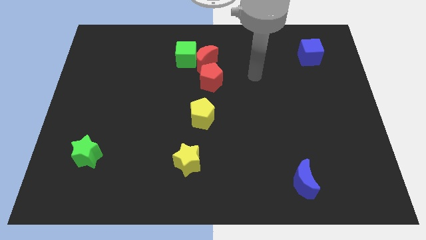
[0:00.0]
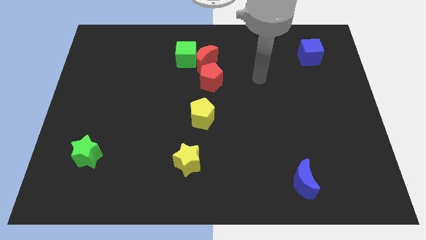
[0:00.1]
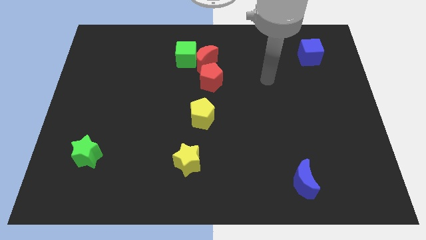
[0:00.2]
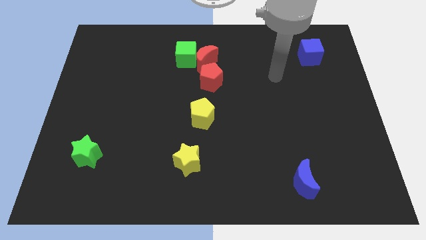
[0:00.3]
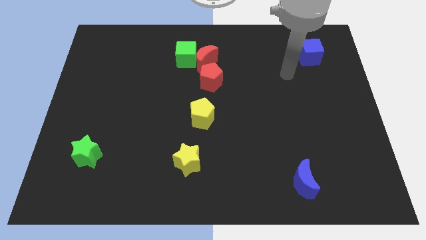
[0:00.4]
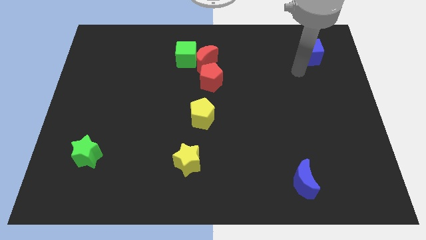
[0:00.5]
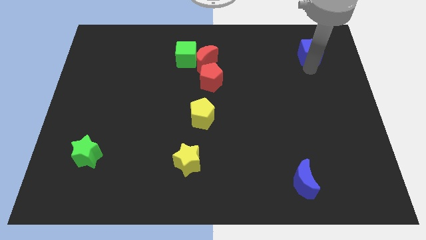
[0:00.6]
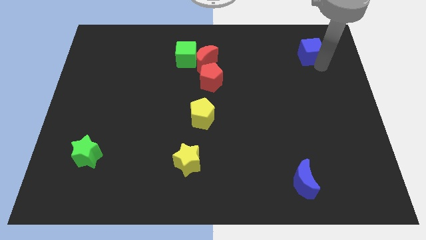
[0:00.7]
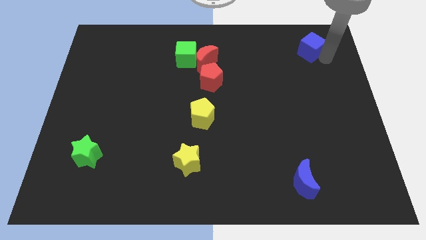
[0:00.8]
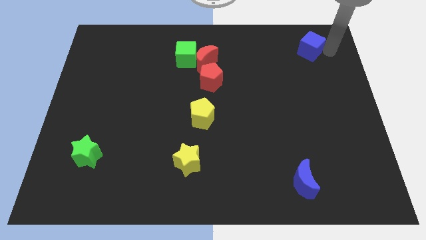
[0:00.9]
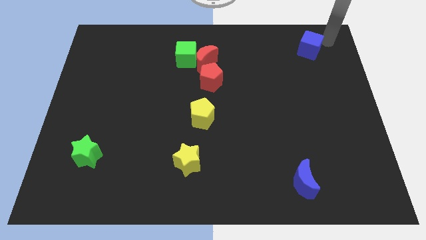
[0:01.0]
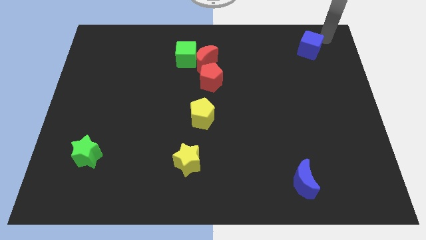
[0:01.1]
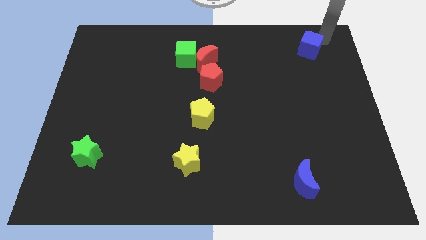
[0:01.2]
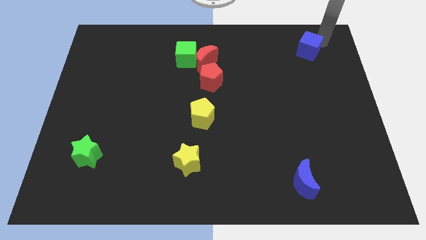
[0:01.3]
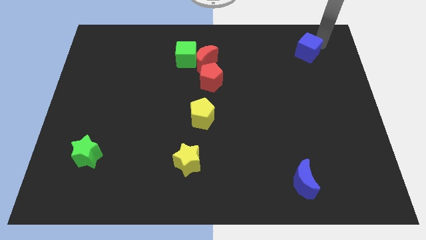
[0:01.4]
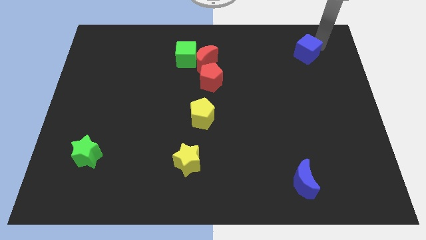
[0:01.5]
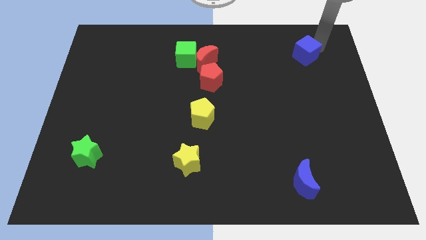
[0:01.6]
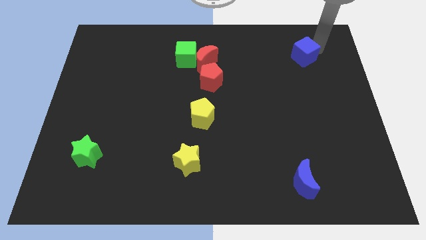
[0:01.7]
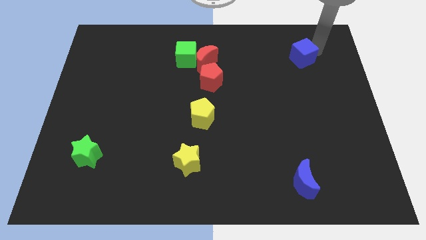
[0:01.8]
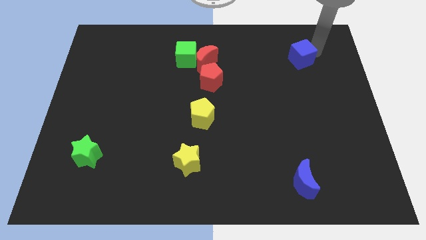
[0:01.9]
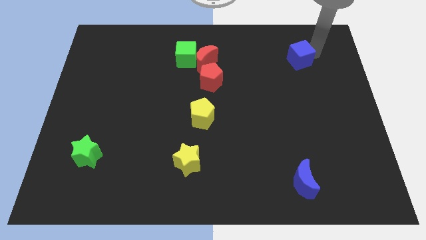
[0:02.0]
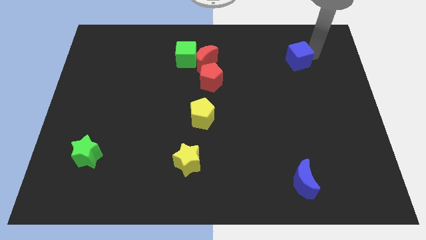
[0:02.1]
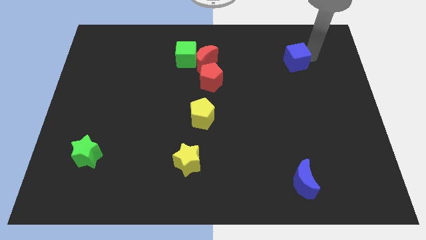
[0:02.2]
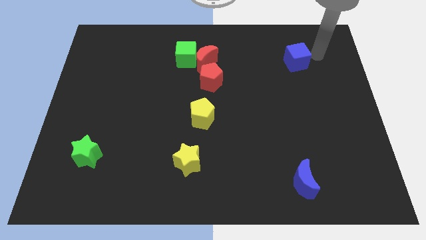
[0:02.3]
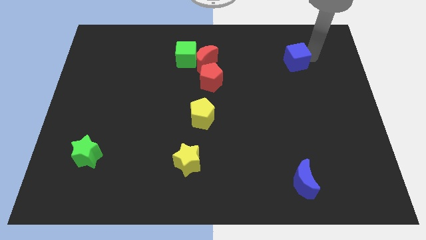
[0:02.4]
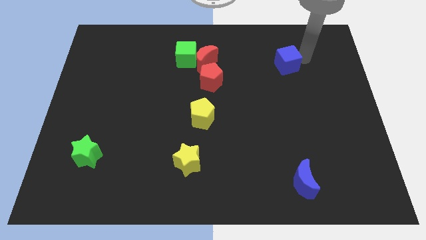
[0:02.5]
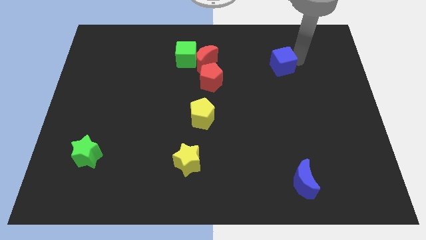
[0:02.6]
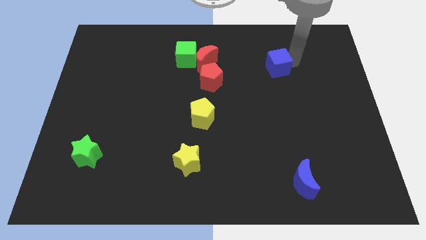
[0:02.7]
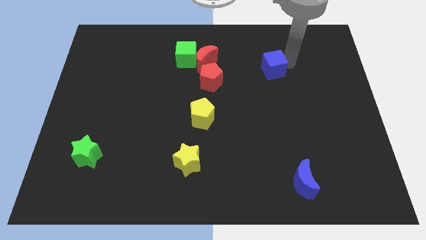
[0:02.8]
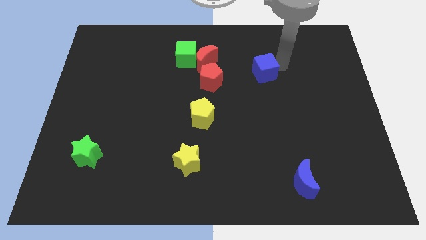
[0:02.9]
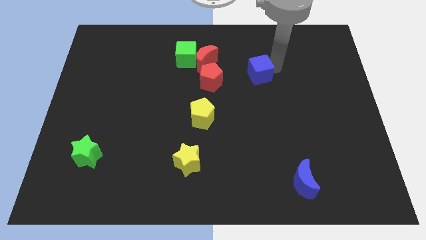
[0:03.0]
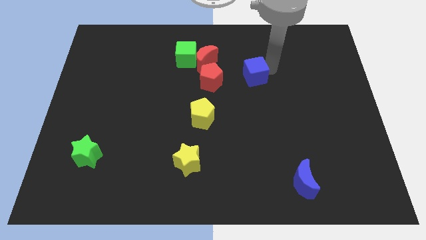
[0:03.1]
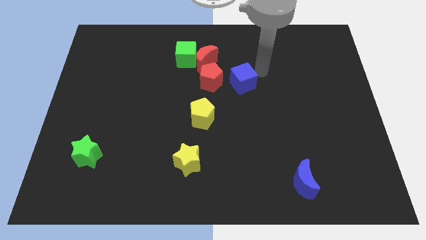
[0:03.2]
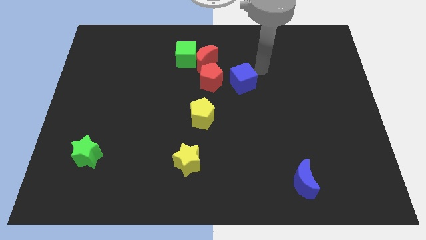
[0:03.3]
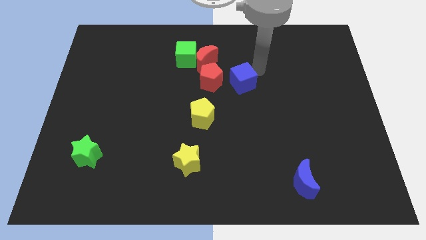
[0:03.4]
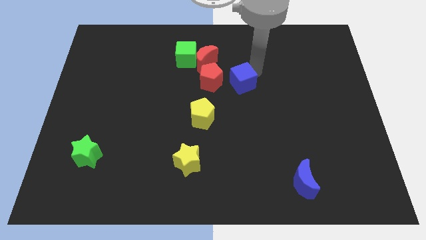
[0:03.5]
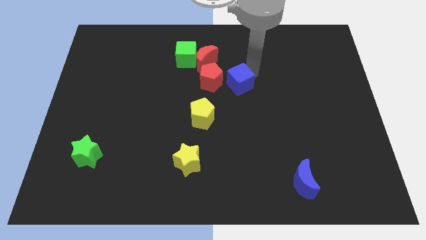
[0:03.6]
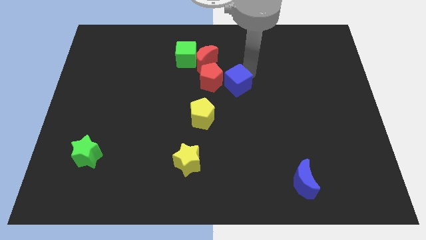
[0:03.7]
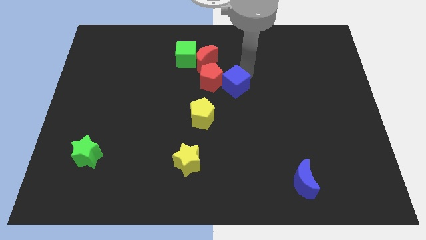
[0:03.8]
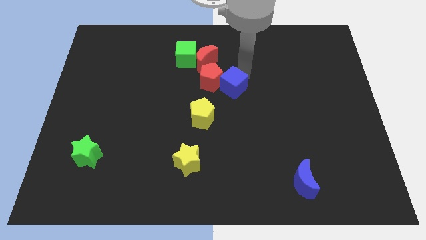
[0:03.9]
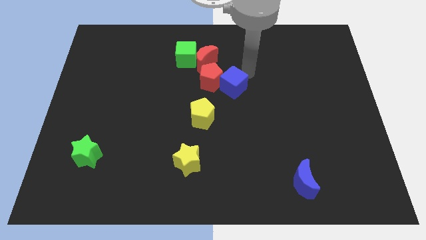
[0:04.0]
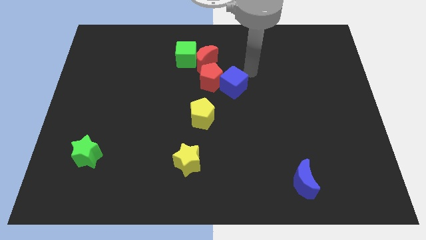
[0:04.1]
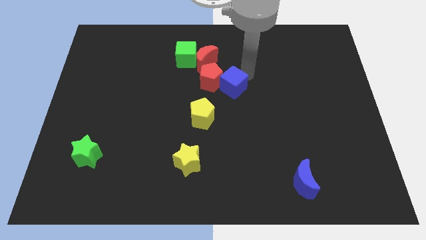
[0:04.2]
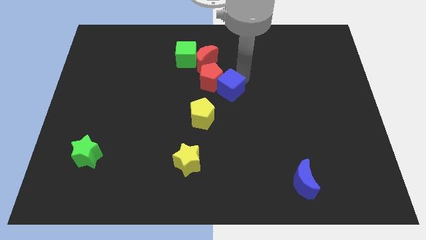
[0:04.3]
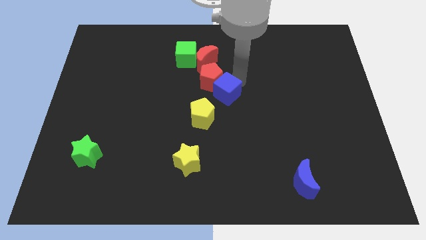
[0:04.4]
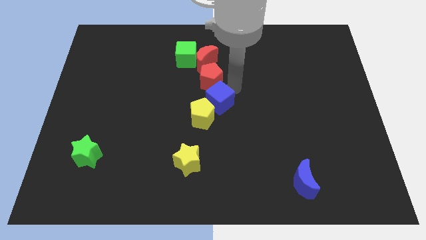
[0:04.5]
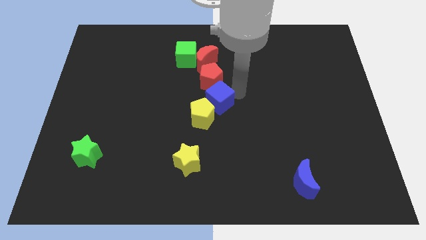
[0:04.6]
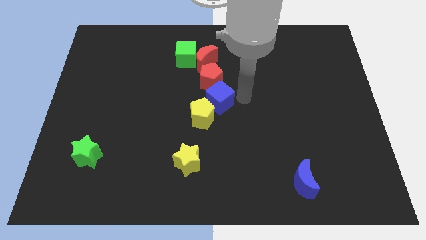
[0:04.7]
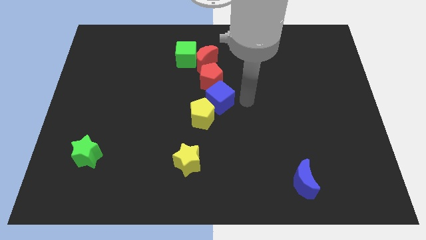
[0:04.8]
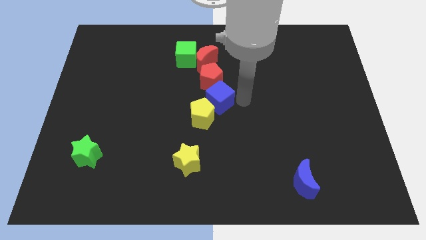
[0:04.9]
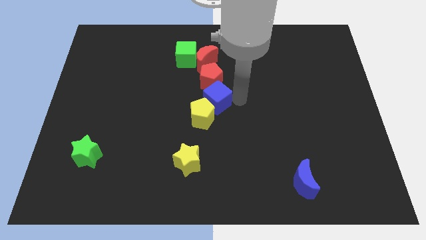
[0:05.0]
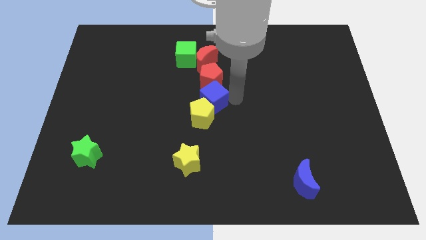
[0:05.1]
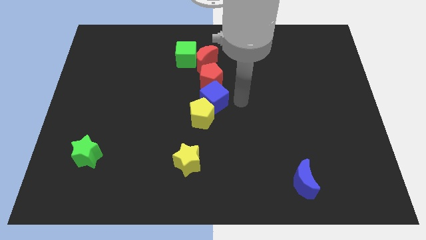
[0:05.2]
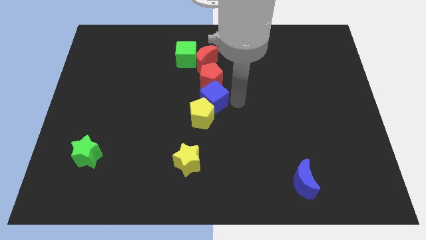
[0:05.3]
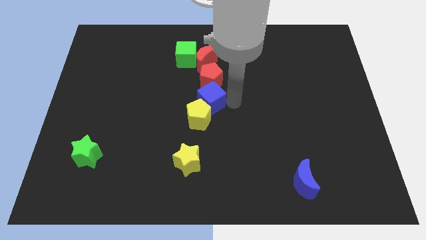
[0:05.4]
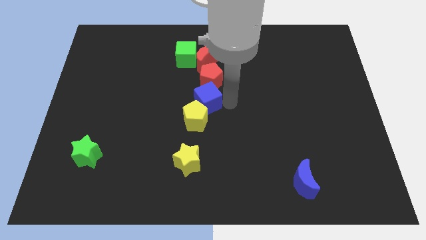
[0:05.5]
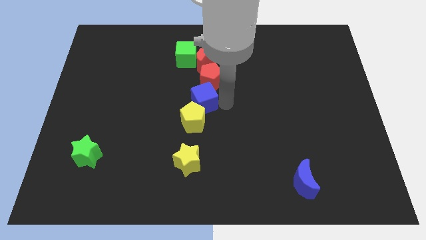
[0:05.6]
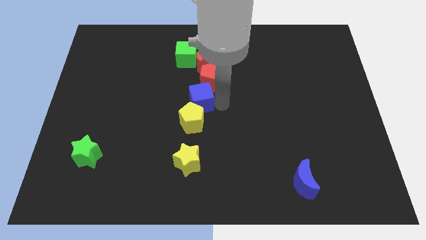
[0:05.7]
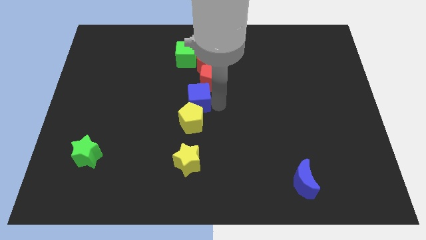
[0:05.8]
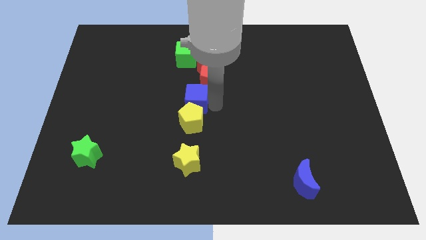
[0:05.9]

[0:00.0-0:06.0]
move the blue cube to the top left side of the yellow pentagon

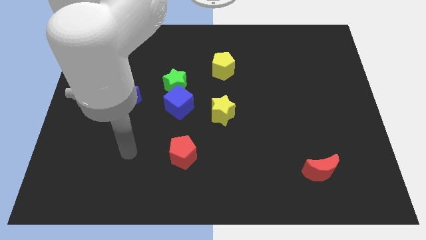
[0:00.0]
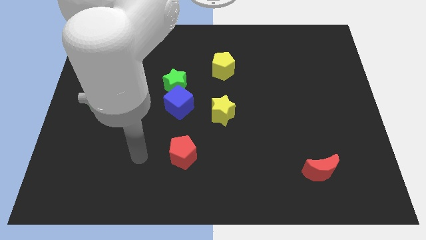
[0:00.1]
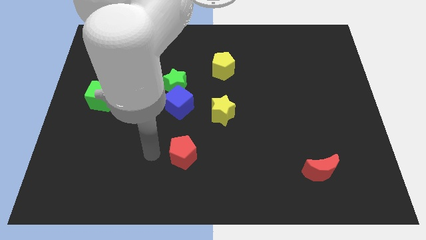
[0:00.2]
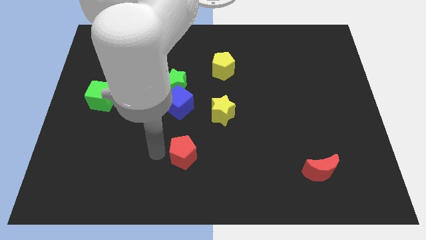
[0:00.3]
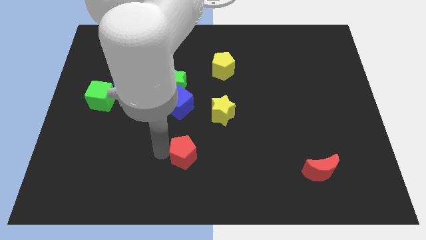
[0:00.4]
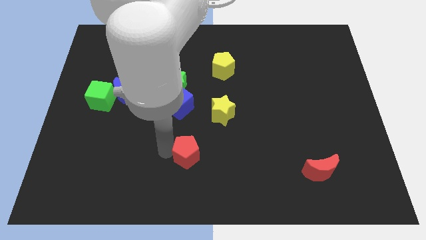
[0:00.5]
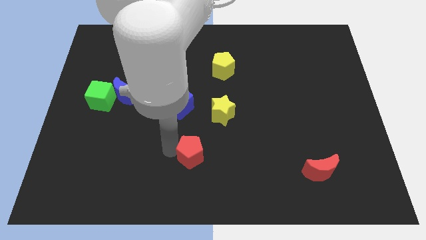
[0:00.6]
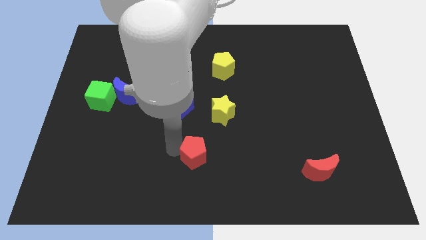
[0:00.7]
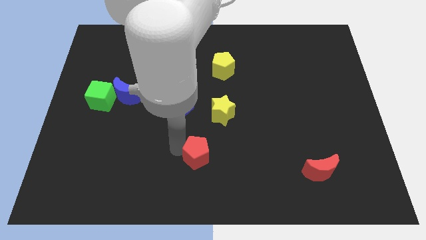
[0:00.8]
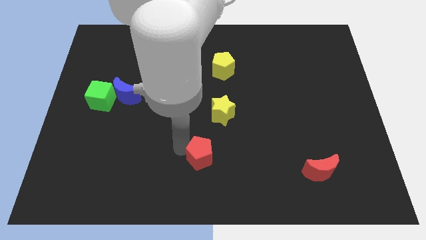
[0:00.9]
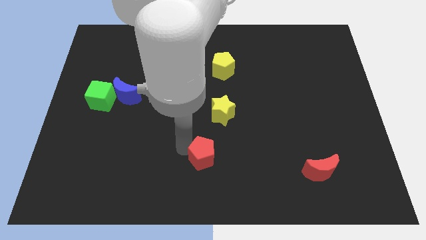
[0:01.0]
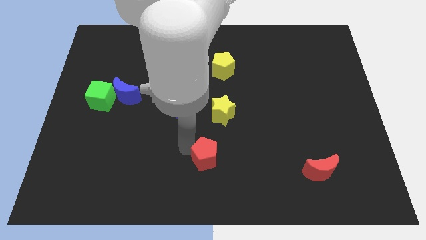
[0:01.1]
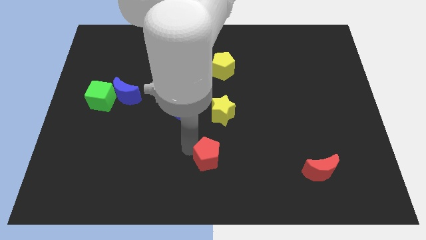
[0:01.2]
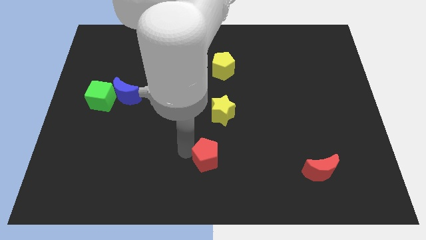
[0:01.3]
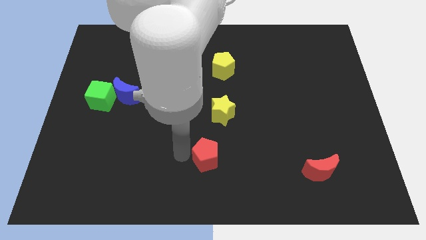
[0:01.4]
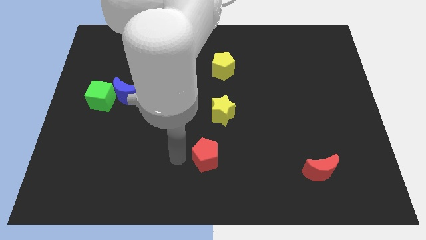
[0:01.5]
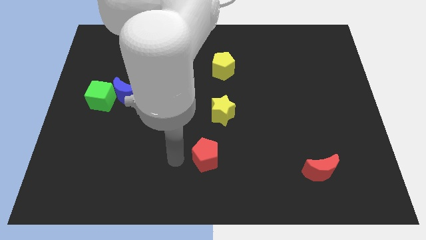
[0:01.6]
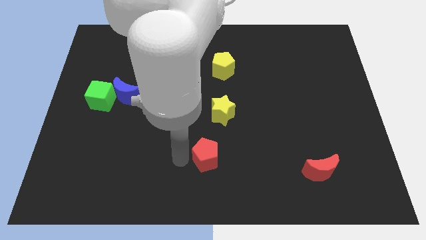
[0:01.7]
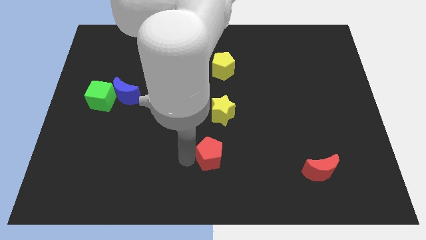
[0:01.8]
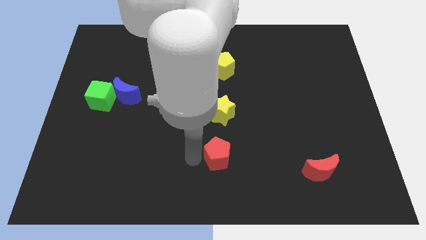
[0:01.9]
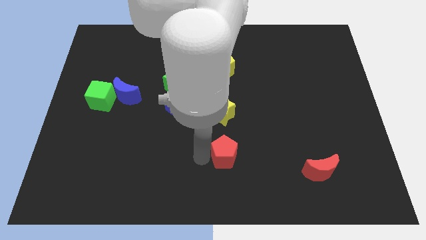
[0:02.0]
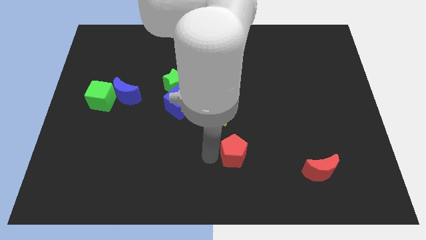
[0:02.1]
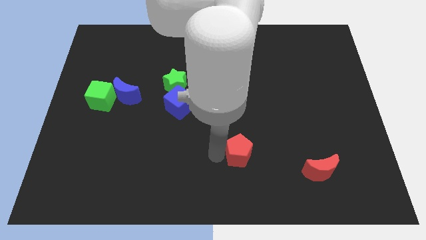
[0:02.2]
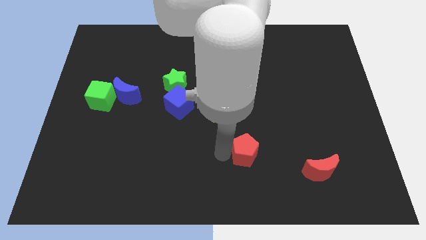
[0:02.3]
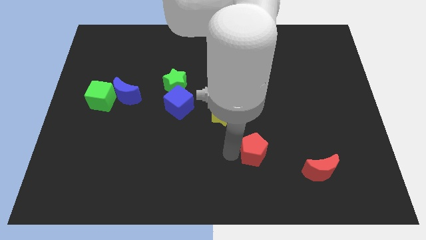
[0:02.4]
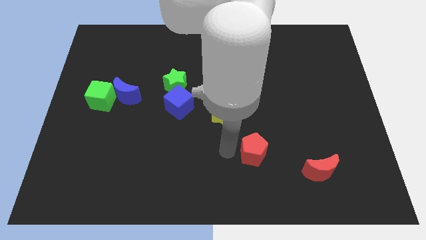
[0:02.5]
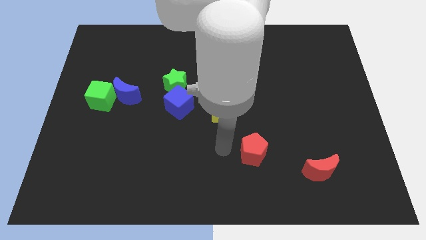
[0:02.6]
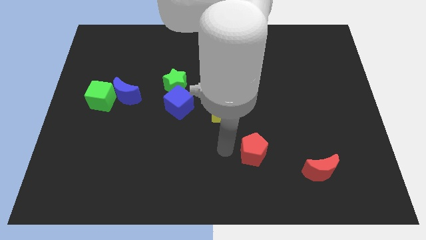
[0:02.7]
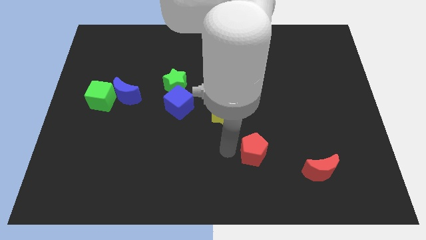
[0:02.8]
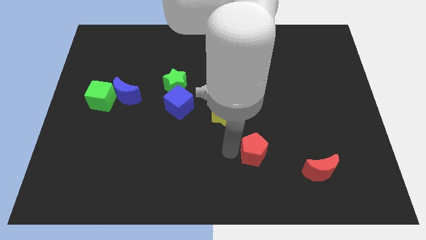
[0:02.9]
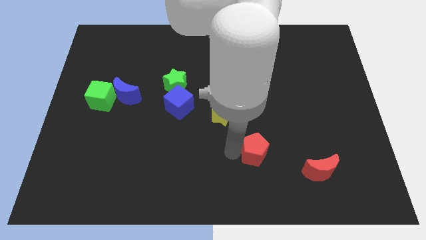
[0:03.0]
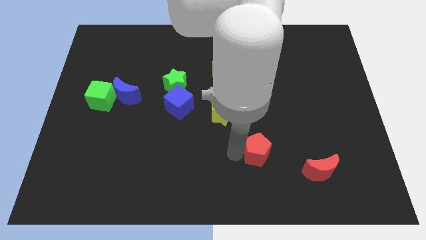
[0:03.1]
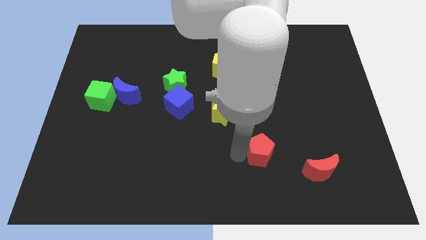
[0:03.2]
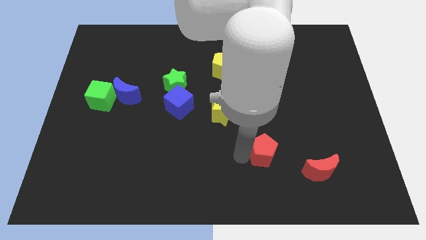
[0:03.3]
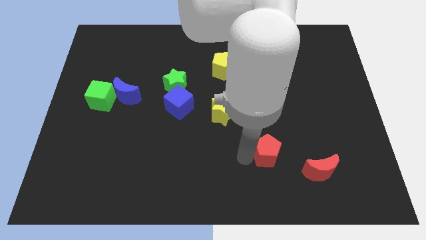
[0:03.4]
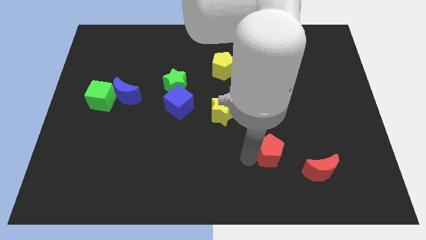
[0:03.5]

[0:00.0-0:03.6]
slide the red pentagon to the top left of the red moon
